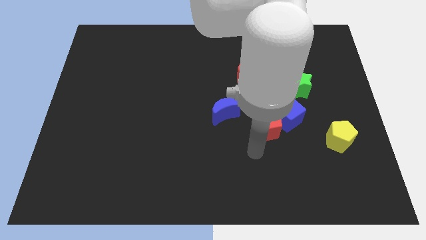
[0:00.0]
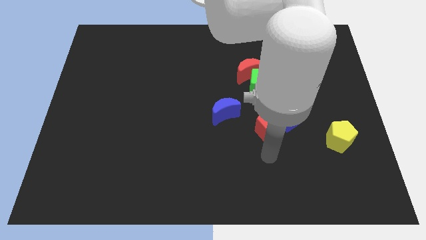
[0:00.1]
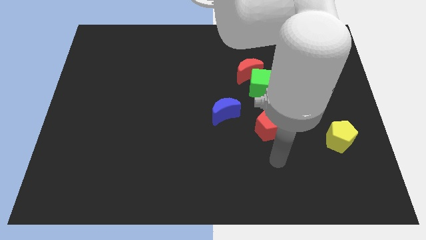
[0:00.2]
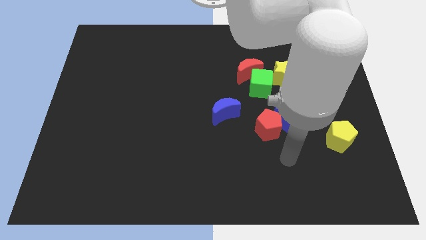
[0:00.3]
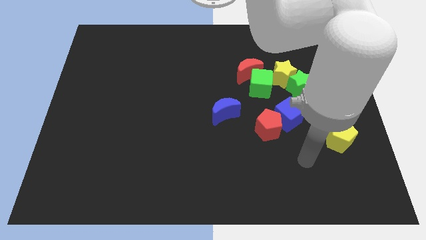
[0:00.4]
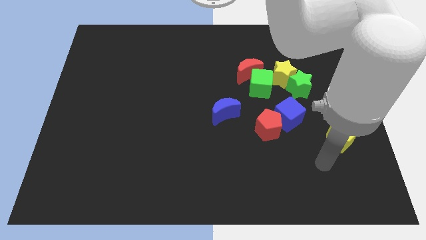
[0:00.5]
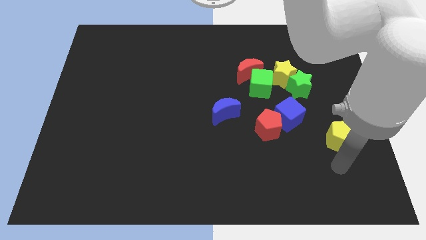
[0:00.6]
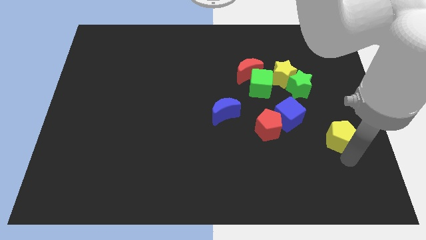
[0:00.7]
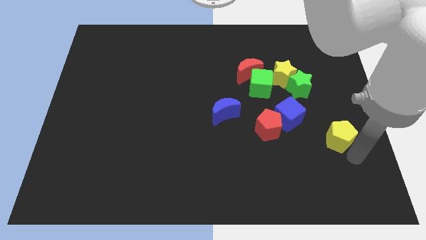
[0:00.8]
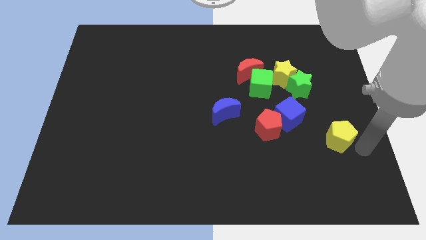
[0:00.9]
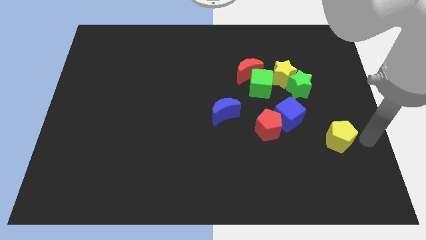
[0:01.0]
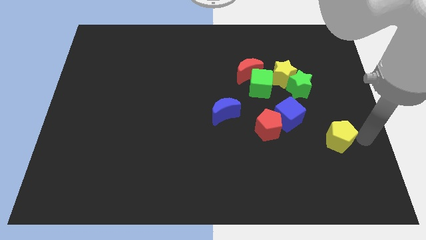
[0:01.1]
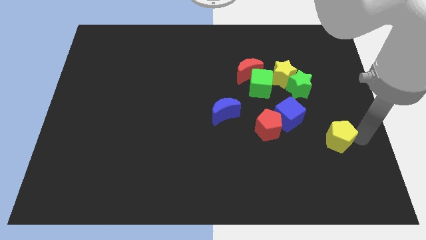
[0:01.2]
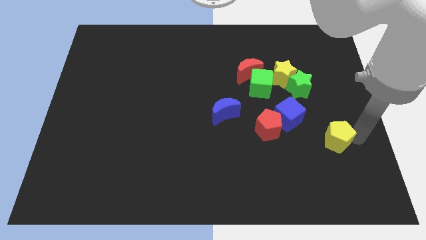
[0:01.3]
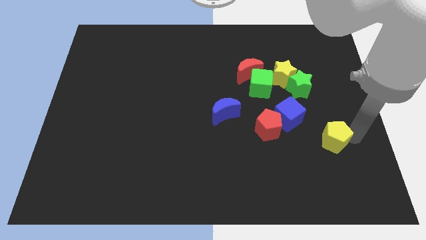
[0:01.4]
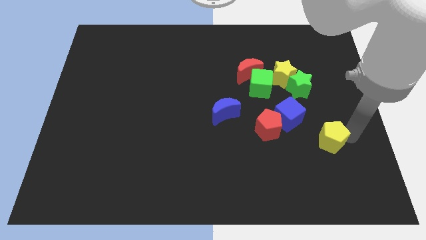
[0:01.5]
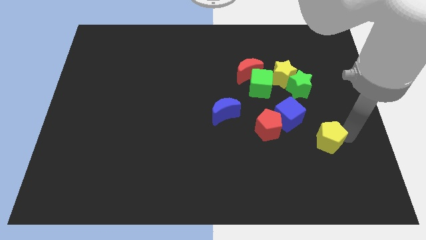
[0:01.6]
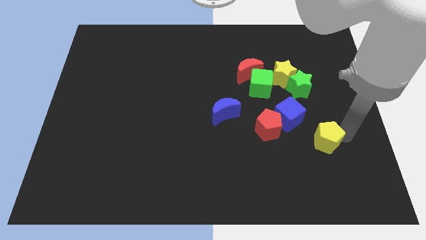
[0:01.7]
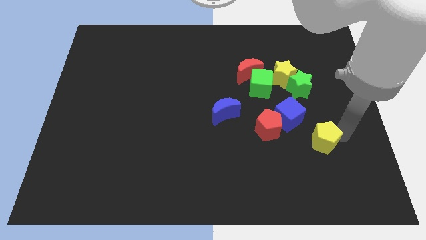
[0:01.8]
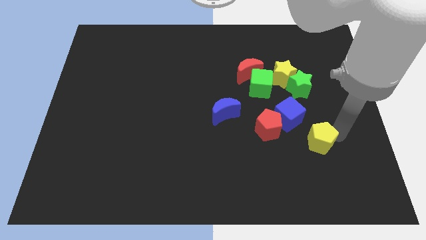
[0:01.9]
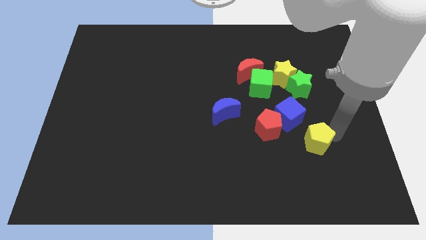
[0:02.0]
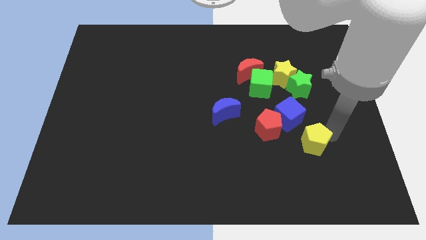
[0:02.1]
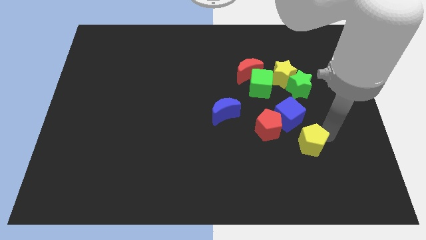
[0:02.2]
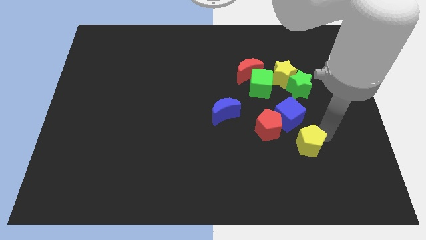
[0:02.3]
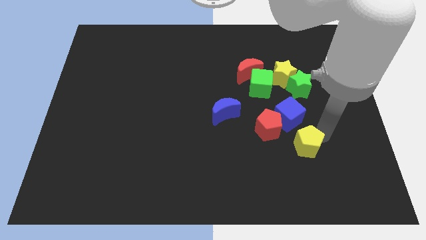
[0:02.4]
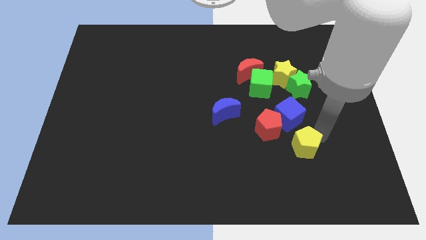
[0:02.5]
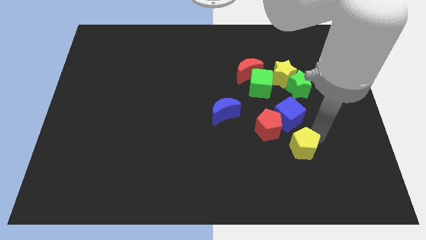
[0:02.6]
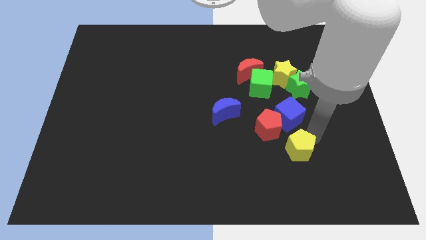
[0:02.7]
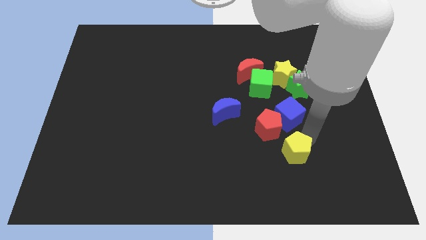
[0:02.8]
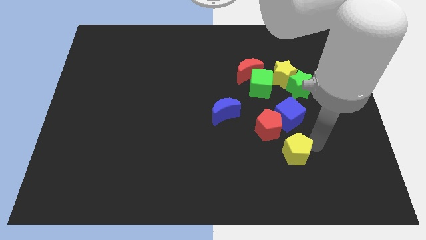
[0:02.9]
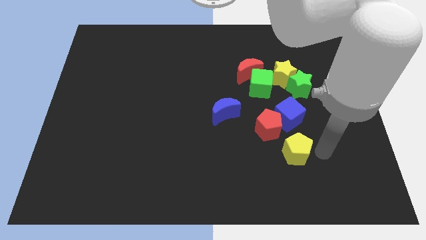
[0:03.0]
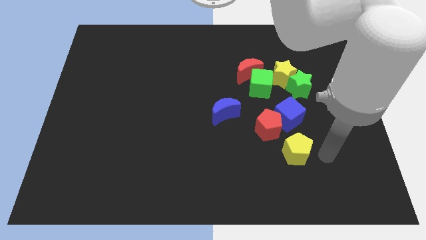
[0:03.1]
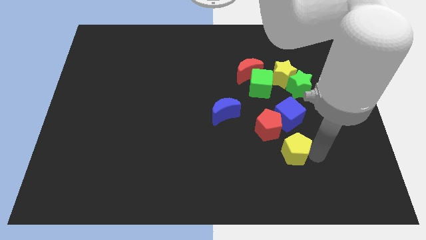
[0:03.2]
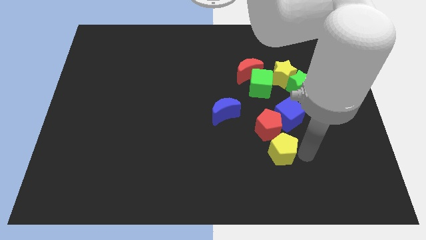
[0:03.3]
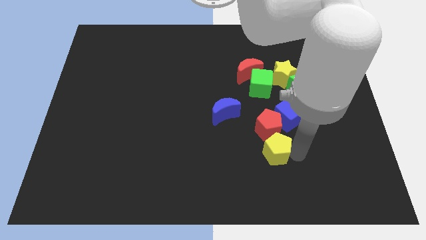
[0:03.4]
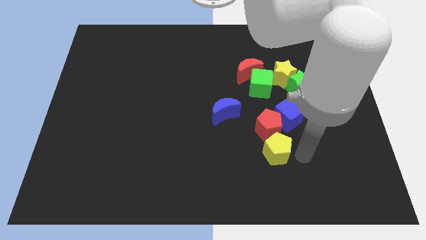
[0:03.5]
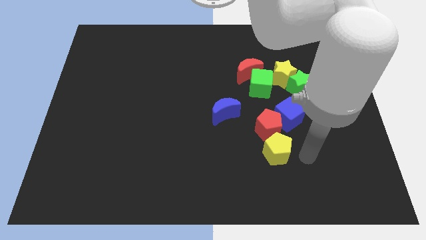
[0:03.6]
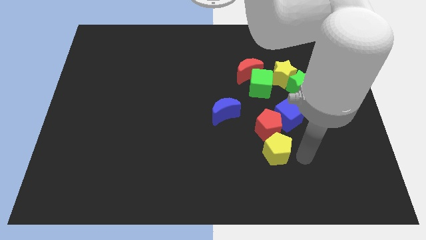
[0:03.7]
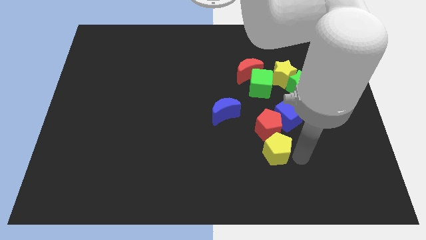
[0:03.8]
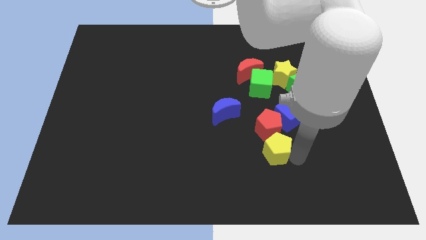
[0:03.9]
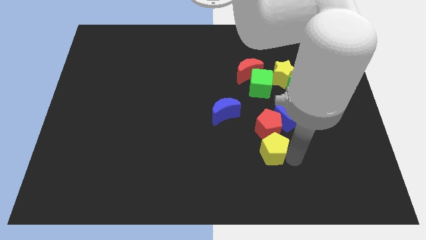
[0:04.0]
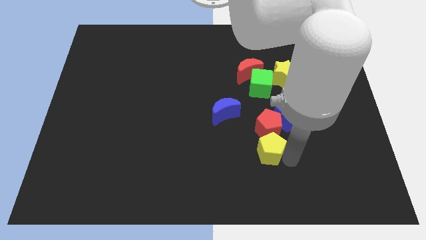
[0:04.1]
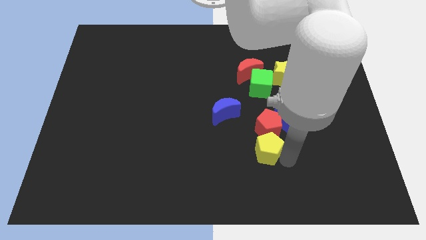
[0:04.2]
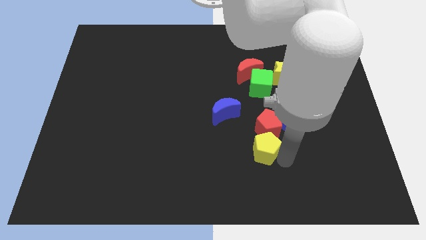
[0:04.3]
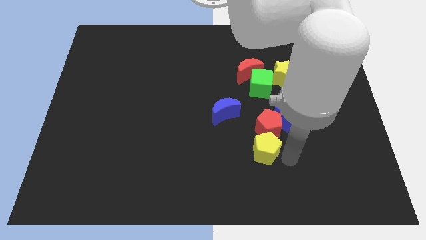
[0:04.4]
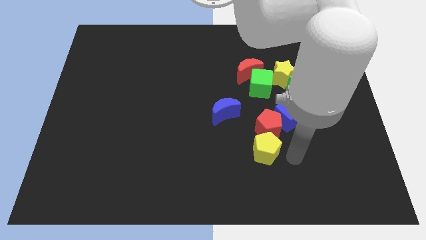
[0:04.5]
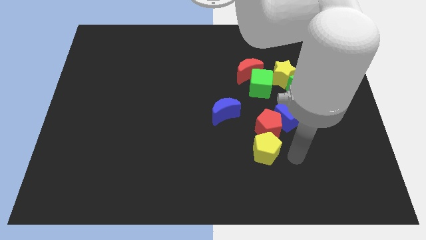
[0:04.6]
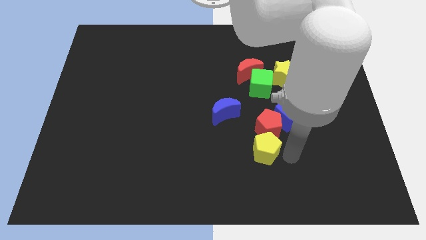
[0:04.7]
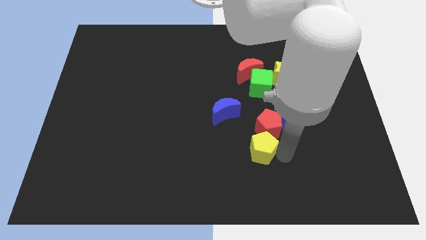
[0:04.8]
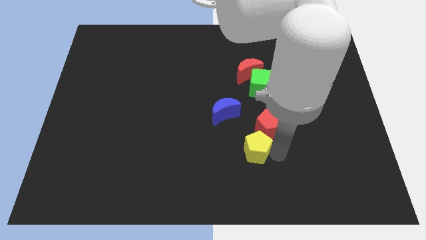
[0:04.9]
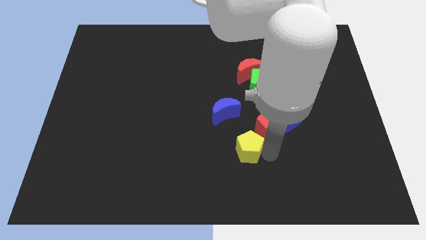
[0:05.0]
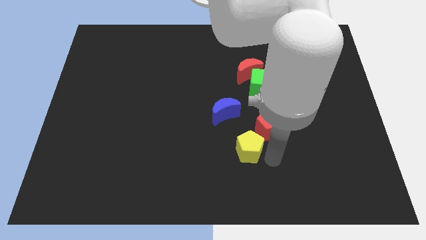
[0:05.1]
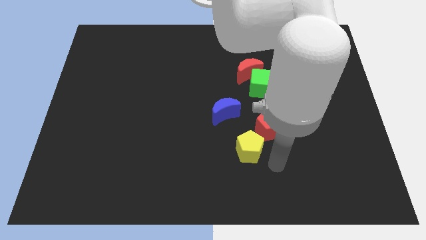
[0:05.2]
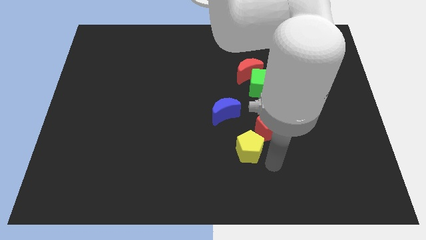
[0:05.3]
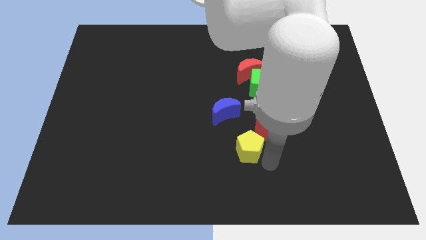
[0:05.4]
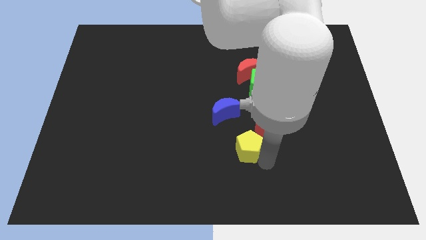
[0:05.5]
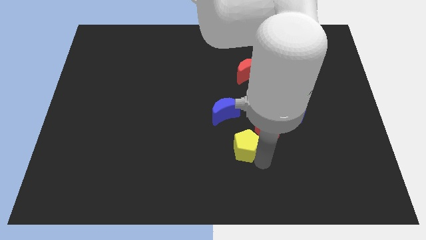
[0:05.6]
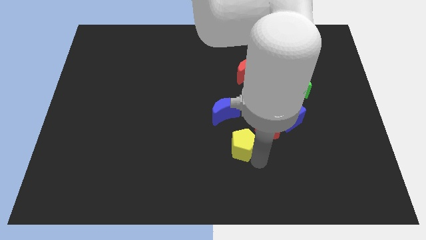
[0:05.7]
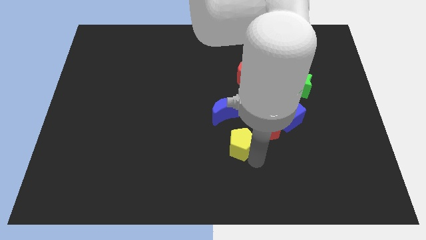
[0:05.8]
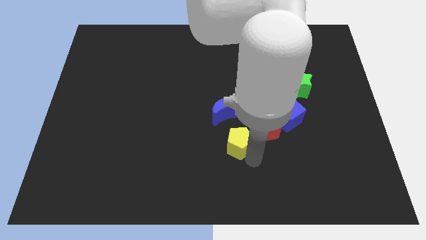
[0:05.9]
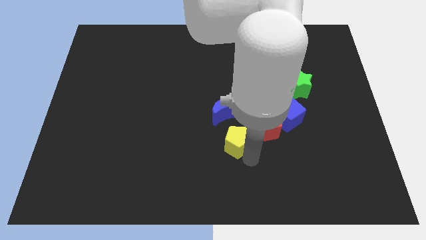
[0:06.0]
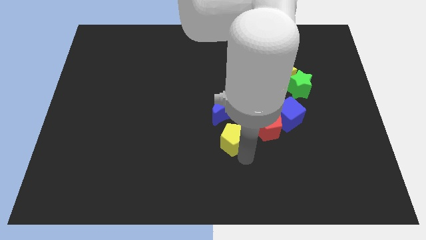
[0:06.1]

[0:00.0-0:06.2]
slide the yellow pentagon to the center of the board
